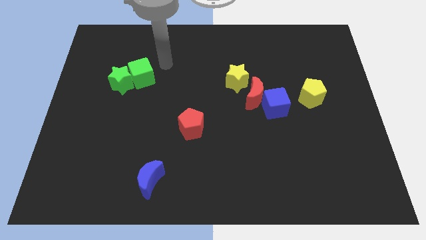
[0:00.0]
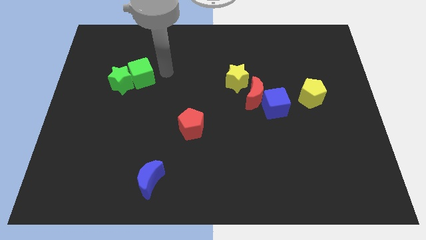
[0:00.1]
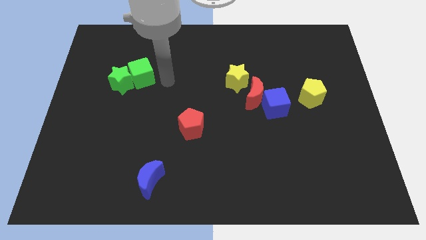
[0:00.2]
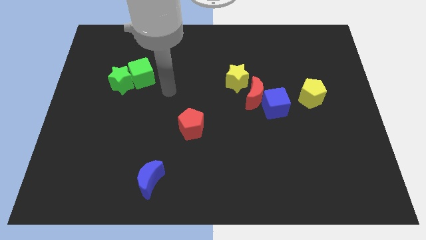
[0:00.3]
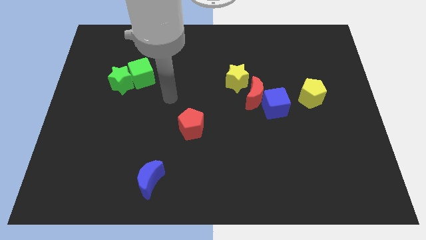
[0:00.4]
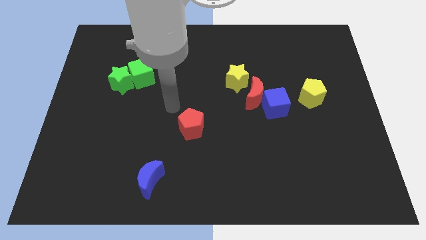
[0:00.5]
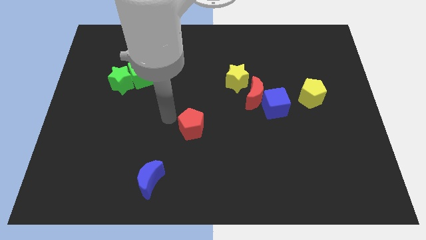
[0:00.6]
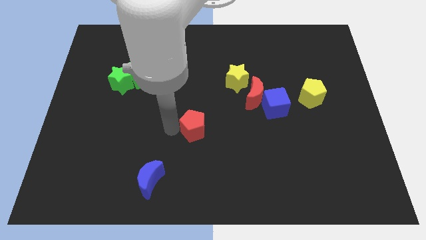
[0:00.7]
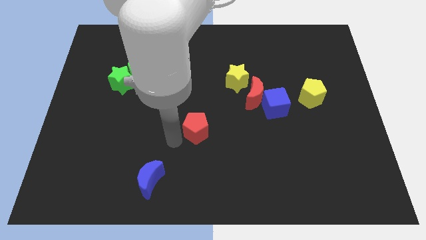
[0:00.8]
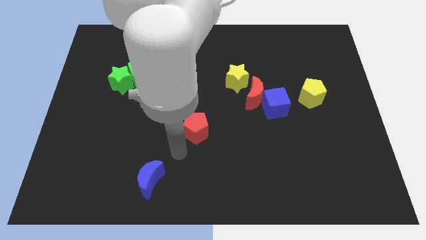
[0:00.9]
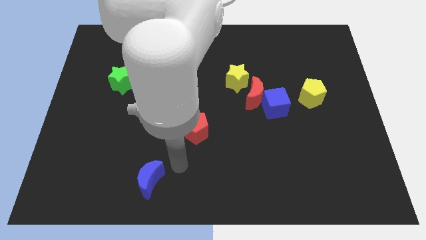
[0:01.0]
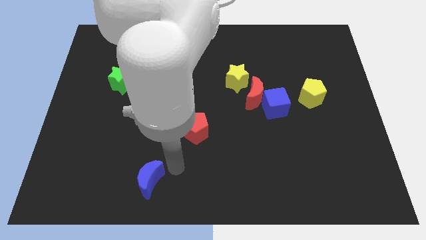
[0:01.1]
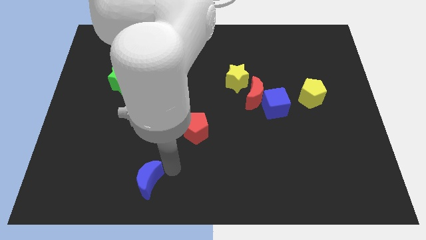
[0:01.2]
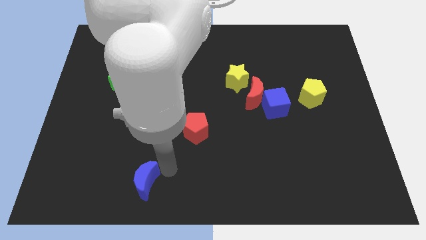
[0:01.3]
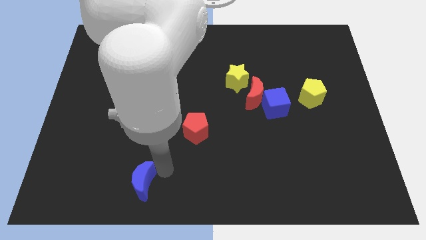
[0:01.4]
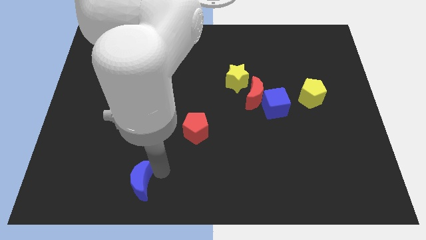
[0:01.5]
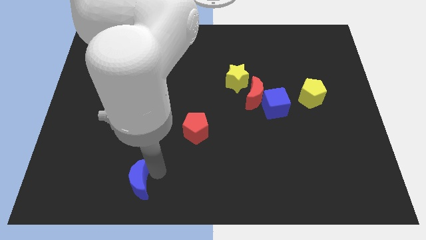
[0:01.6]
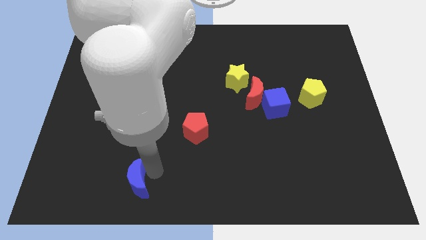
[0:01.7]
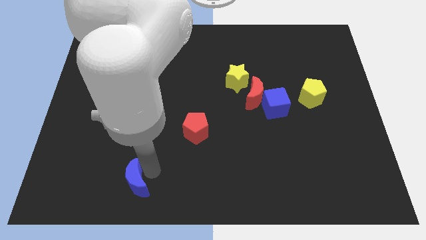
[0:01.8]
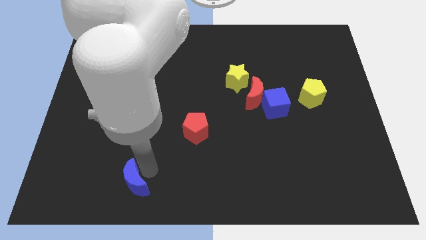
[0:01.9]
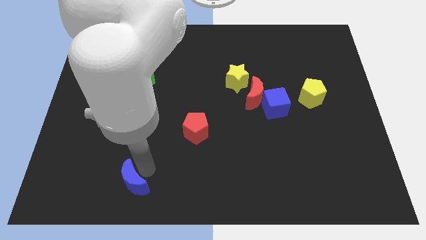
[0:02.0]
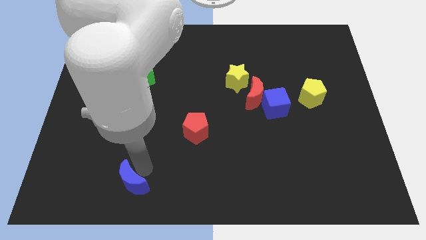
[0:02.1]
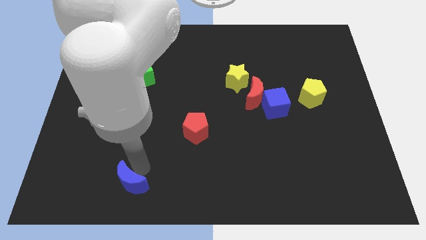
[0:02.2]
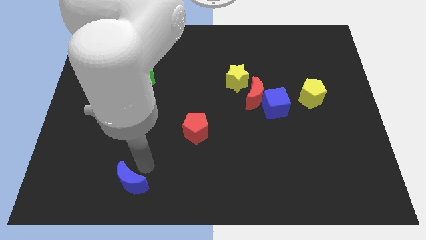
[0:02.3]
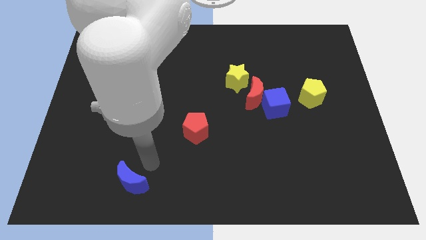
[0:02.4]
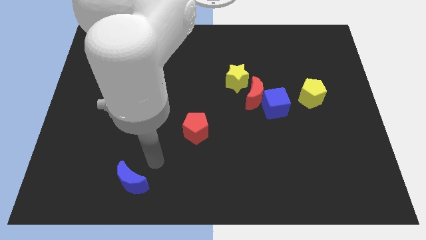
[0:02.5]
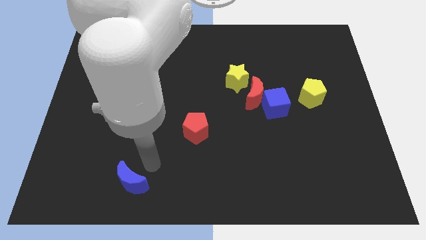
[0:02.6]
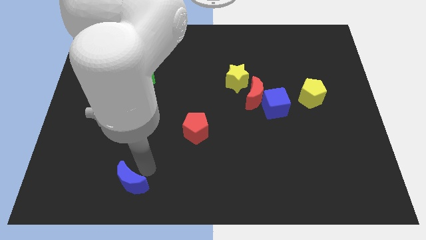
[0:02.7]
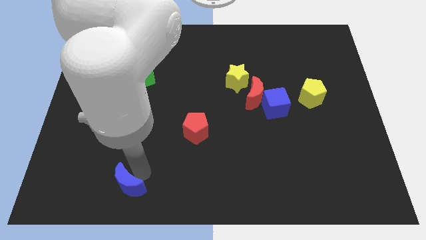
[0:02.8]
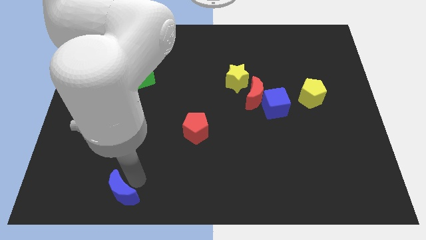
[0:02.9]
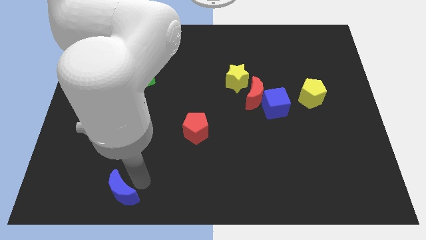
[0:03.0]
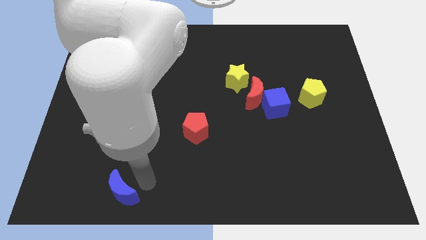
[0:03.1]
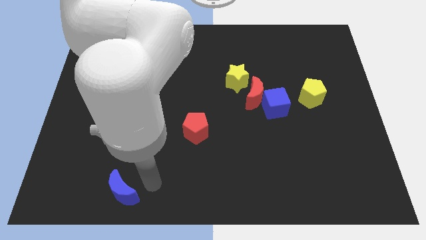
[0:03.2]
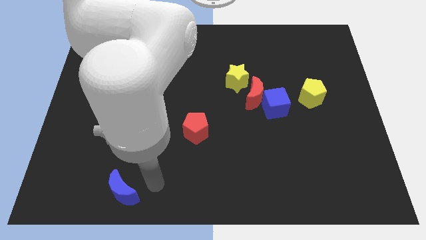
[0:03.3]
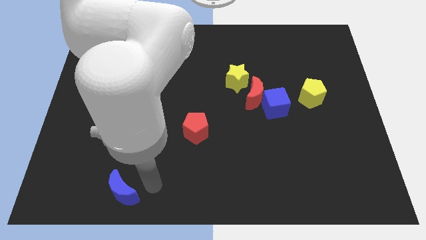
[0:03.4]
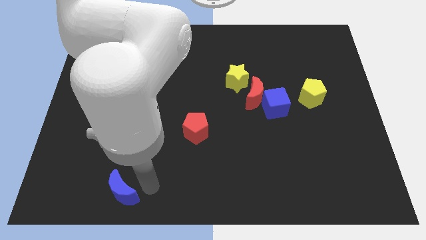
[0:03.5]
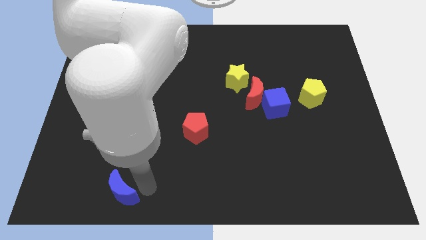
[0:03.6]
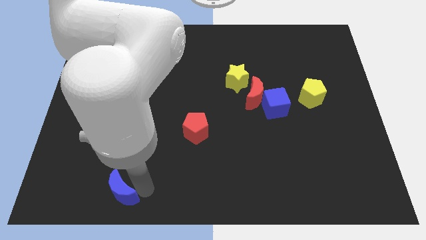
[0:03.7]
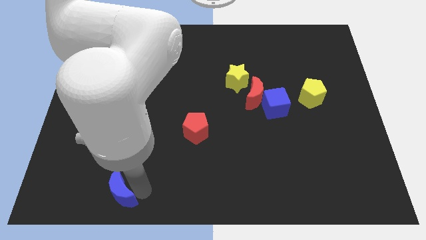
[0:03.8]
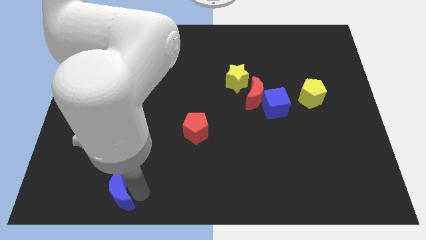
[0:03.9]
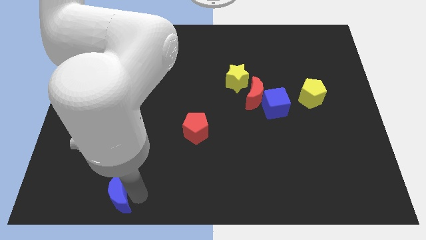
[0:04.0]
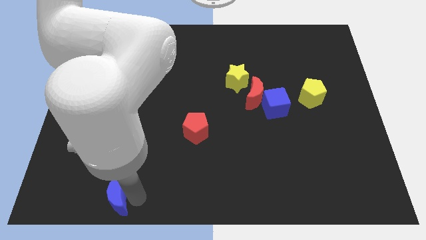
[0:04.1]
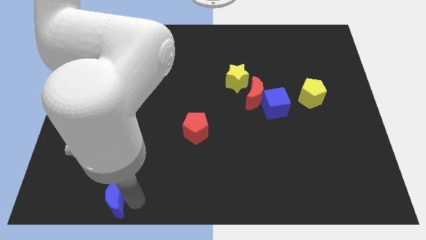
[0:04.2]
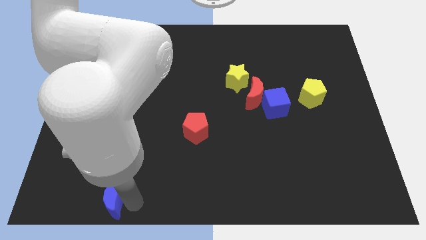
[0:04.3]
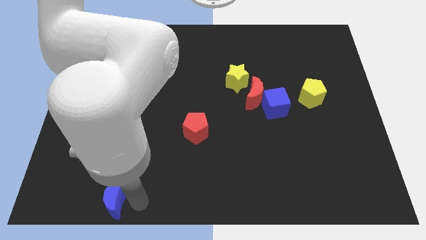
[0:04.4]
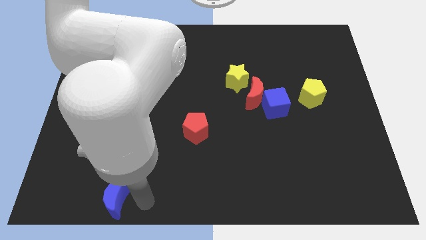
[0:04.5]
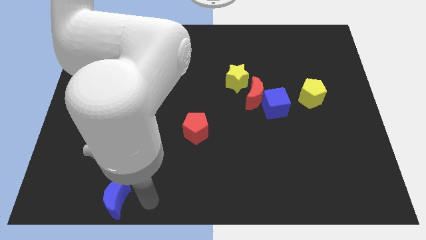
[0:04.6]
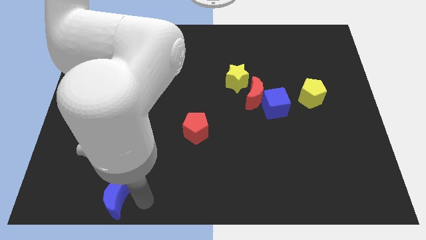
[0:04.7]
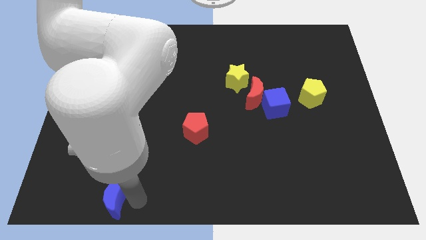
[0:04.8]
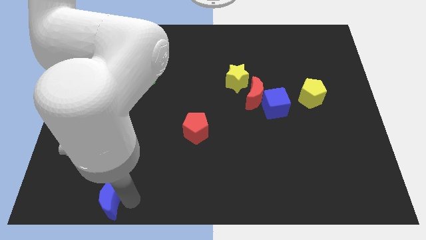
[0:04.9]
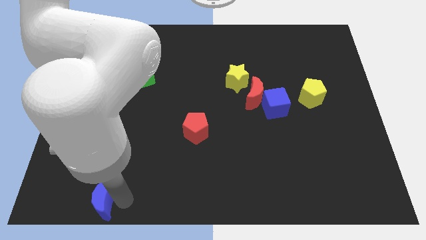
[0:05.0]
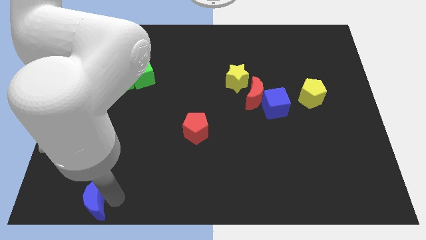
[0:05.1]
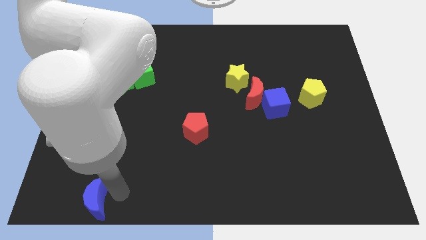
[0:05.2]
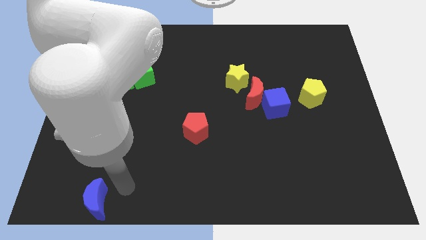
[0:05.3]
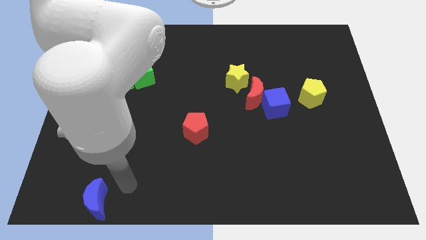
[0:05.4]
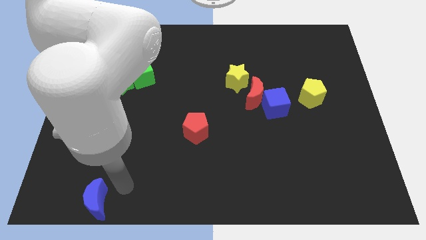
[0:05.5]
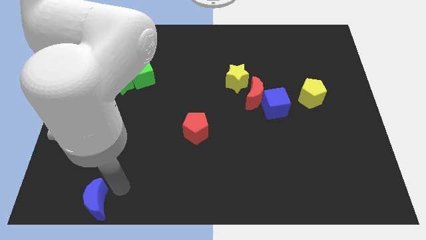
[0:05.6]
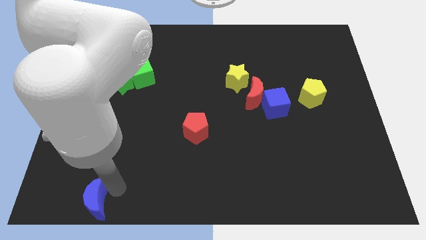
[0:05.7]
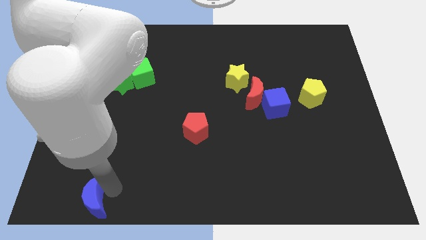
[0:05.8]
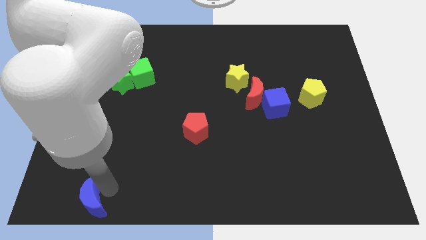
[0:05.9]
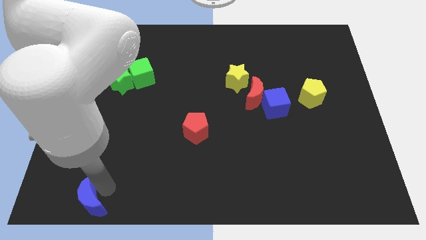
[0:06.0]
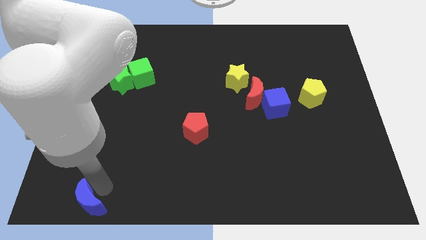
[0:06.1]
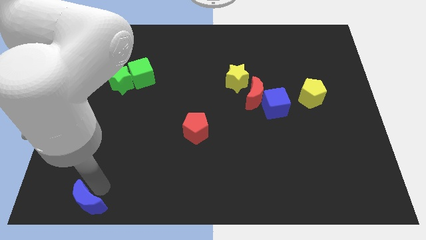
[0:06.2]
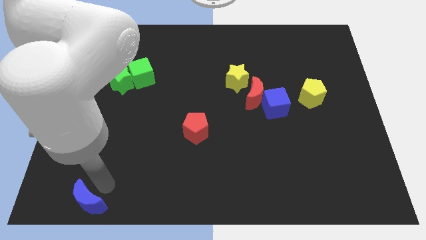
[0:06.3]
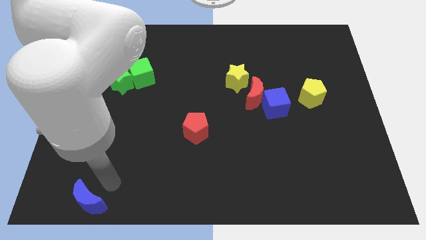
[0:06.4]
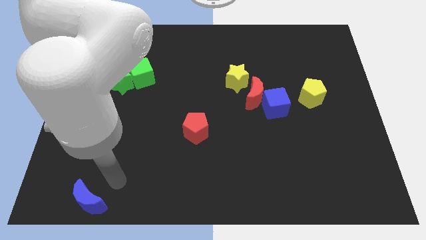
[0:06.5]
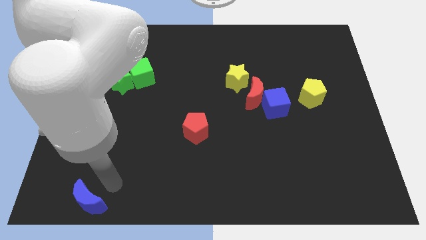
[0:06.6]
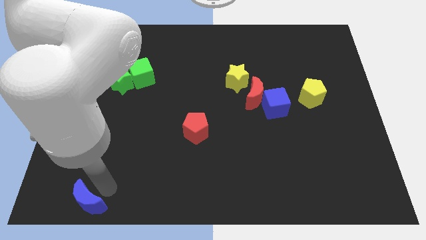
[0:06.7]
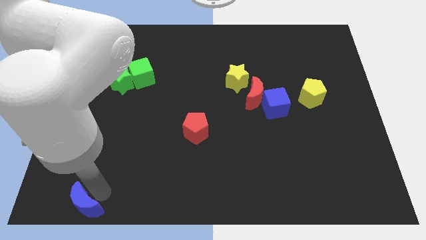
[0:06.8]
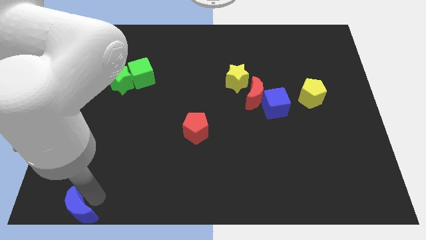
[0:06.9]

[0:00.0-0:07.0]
slide the blue moon to the bottom left of the board
